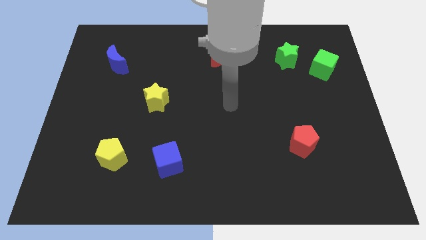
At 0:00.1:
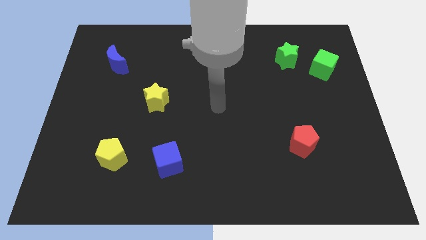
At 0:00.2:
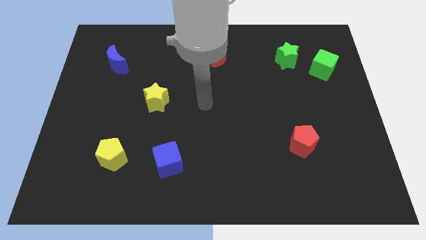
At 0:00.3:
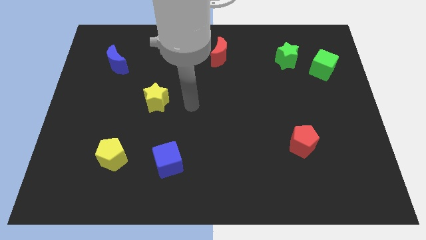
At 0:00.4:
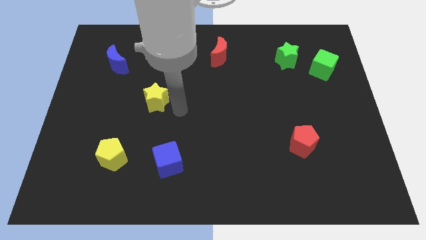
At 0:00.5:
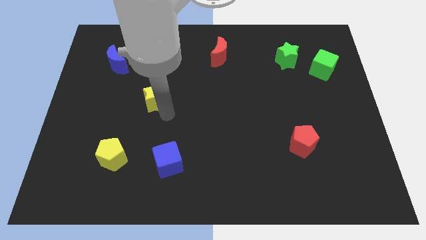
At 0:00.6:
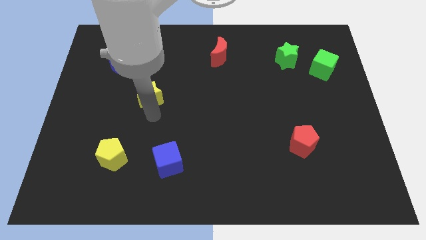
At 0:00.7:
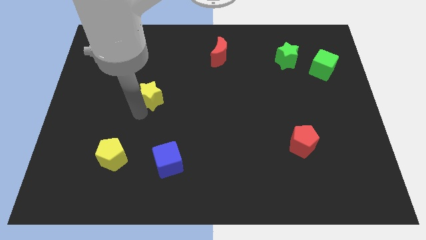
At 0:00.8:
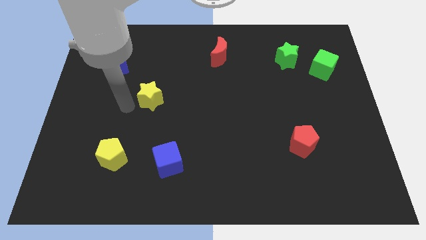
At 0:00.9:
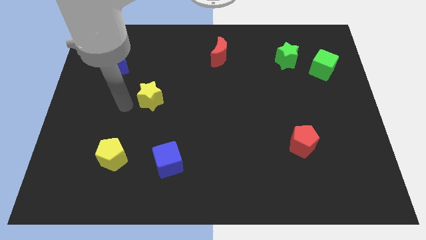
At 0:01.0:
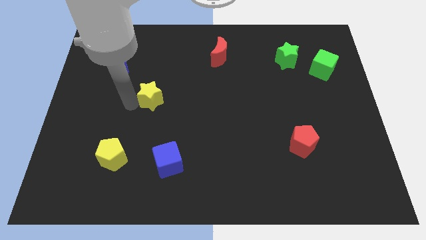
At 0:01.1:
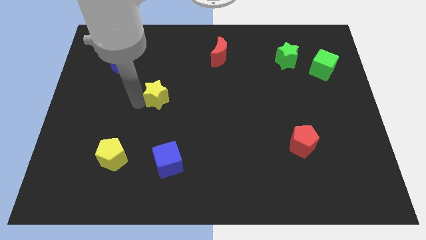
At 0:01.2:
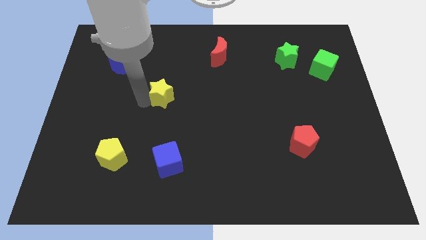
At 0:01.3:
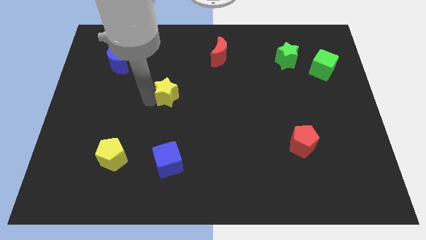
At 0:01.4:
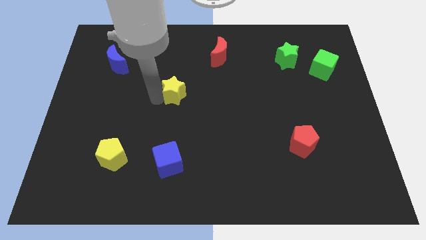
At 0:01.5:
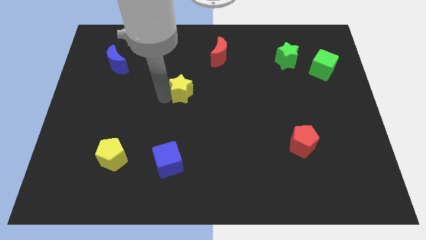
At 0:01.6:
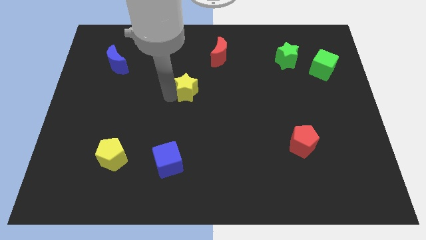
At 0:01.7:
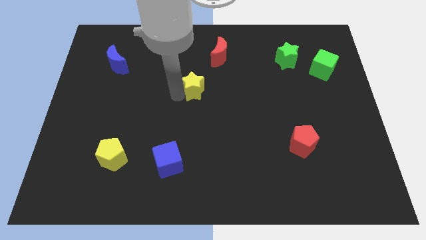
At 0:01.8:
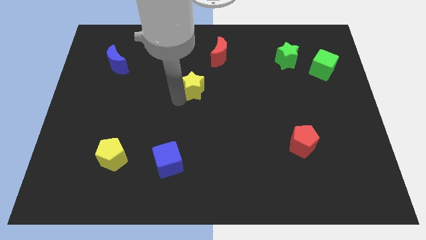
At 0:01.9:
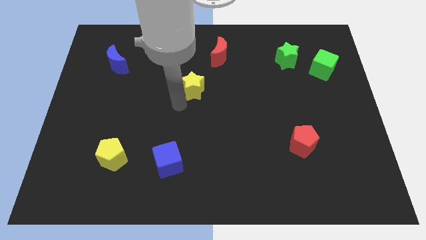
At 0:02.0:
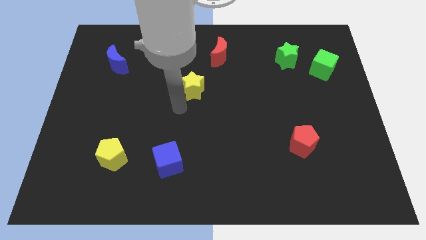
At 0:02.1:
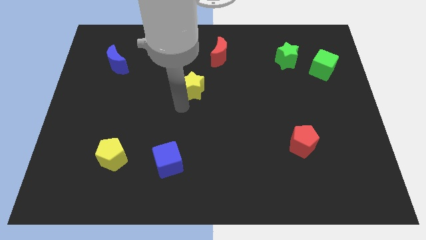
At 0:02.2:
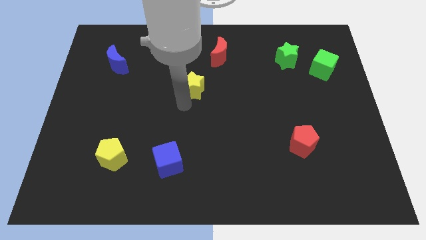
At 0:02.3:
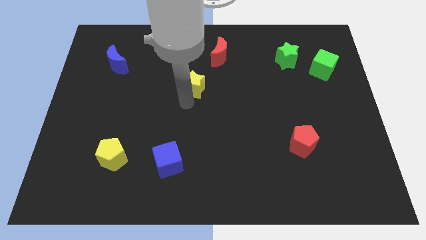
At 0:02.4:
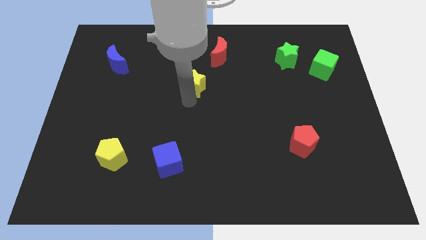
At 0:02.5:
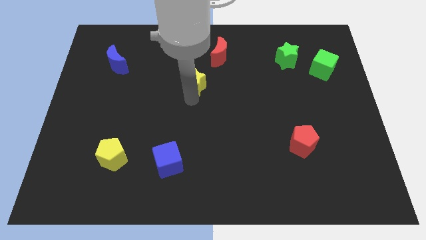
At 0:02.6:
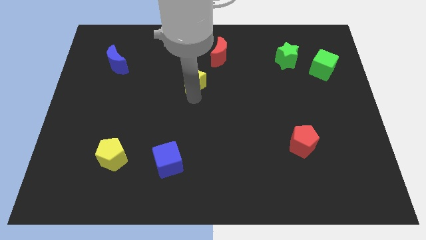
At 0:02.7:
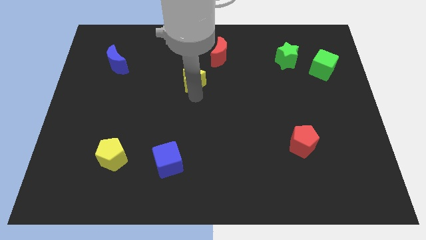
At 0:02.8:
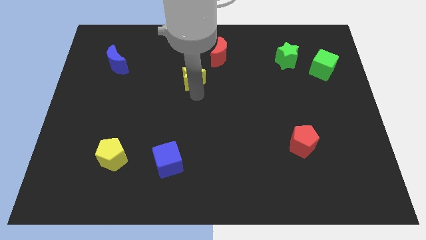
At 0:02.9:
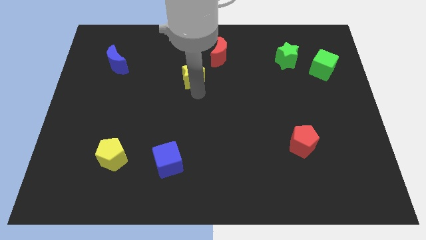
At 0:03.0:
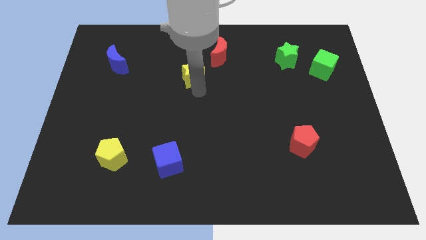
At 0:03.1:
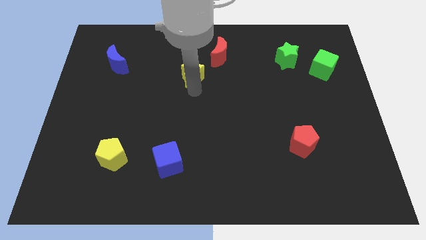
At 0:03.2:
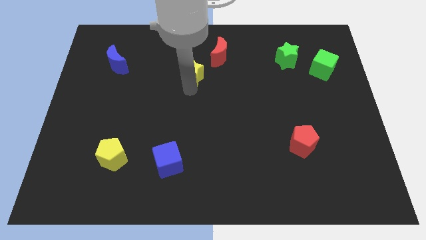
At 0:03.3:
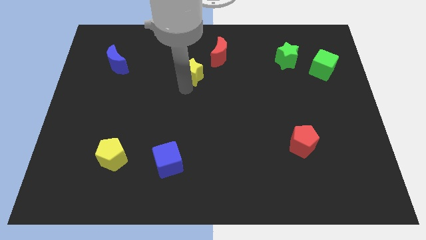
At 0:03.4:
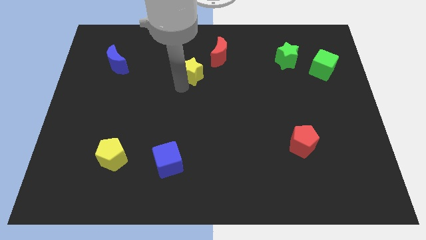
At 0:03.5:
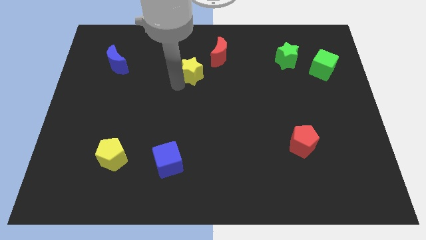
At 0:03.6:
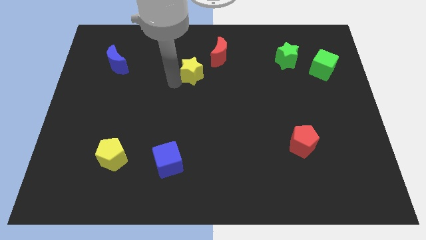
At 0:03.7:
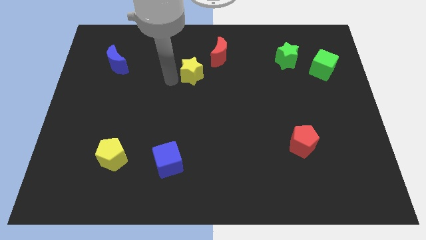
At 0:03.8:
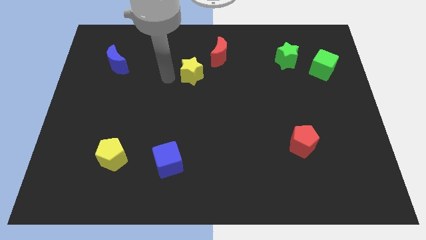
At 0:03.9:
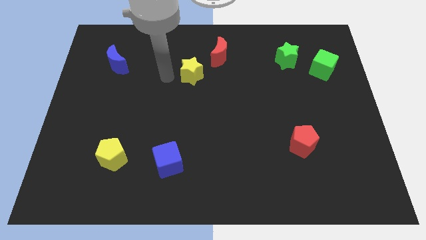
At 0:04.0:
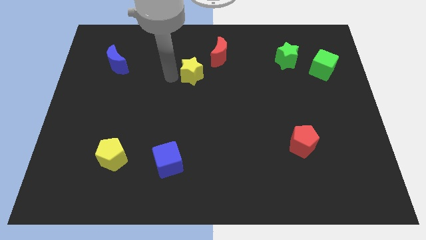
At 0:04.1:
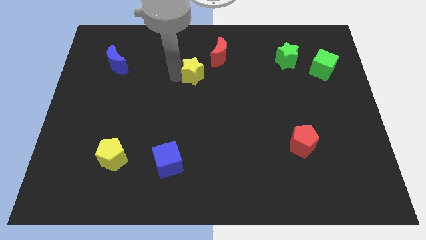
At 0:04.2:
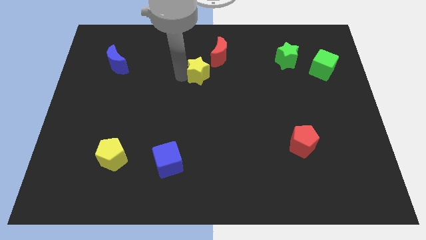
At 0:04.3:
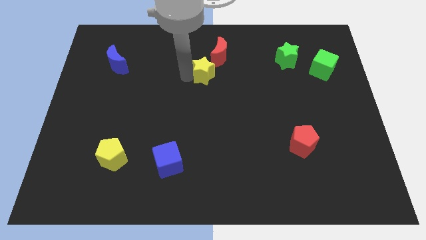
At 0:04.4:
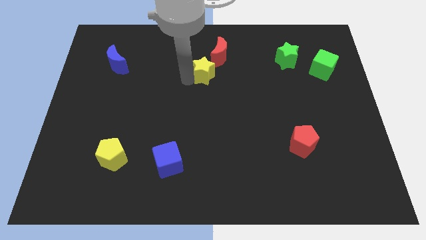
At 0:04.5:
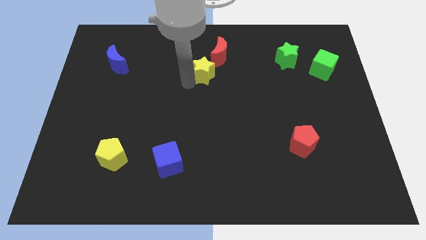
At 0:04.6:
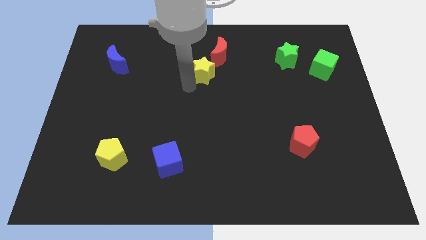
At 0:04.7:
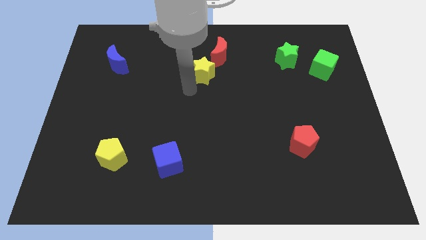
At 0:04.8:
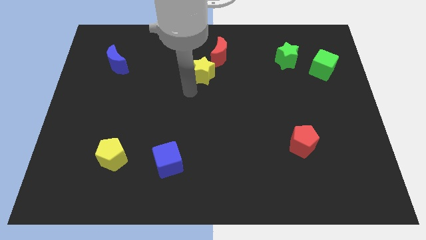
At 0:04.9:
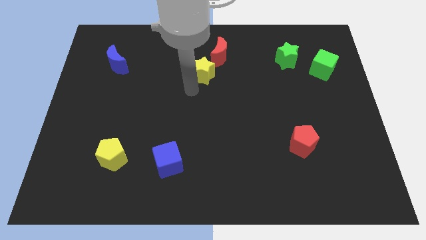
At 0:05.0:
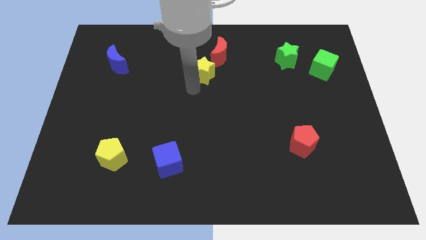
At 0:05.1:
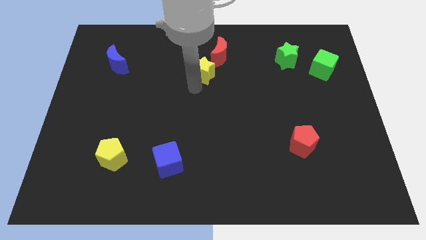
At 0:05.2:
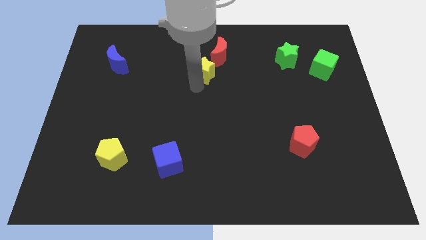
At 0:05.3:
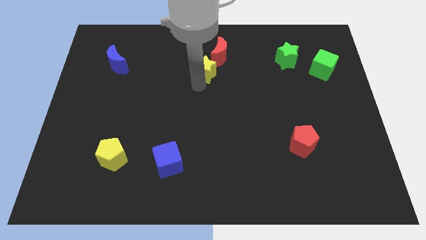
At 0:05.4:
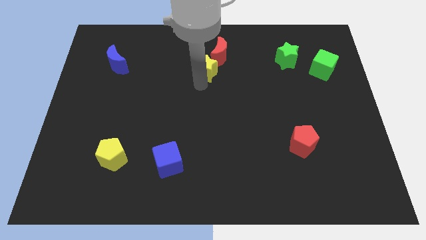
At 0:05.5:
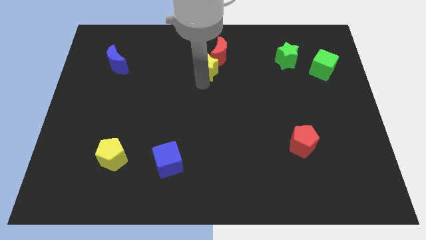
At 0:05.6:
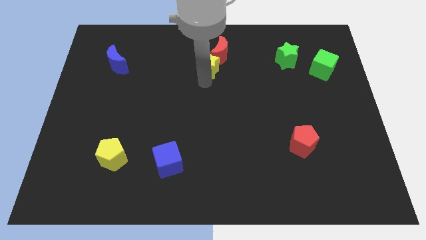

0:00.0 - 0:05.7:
put the yellow star to the red moon

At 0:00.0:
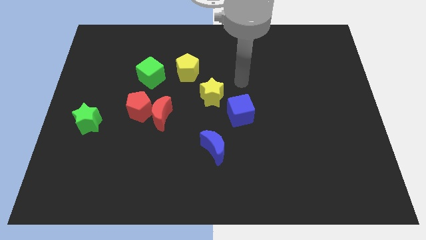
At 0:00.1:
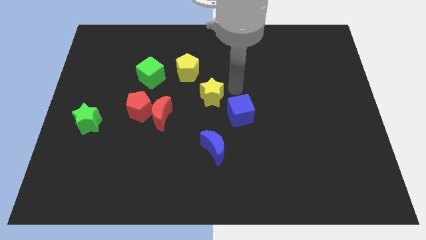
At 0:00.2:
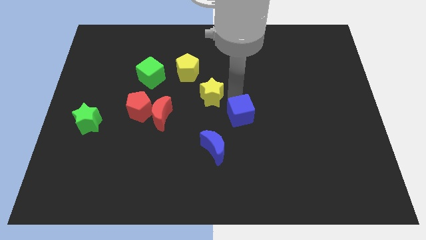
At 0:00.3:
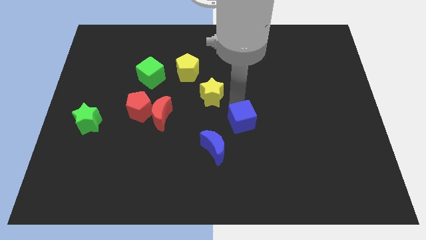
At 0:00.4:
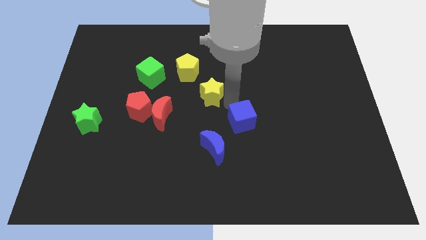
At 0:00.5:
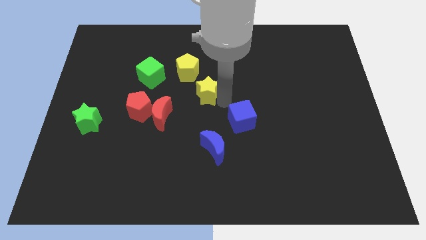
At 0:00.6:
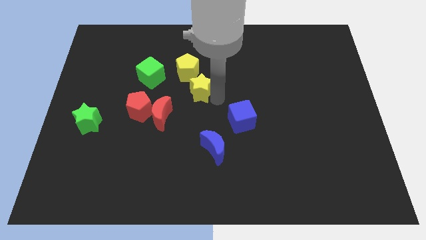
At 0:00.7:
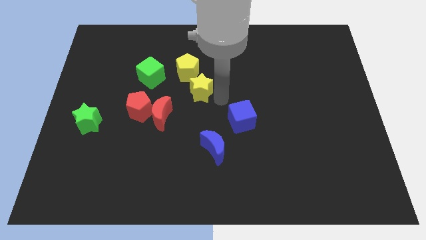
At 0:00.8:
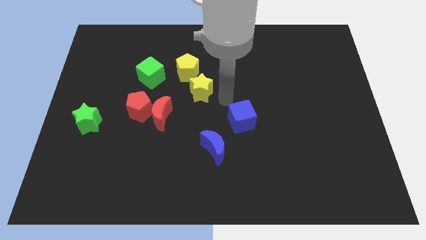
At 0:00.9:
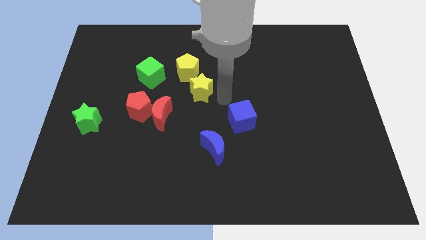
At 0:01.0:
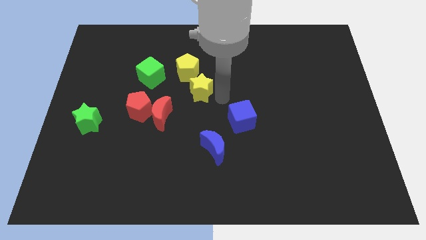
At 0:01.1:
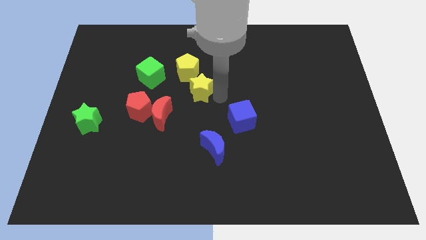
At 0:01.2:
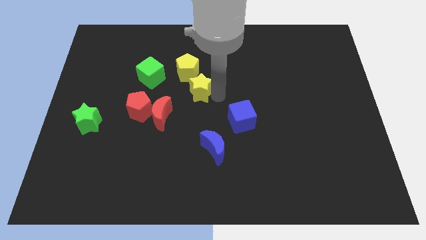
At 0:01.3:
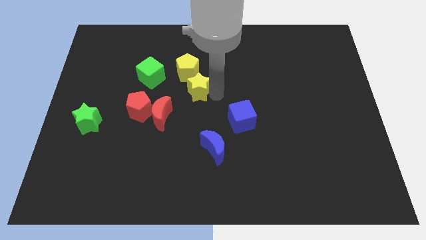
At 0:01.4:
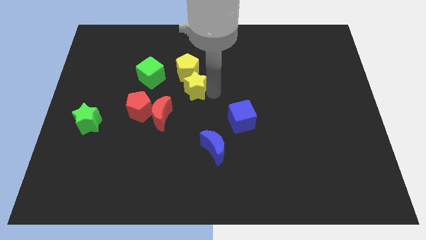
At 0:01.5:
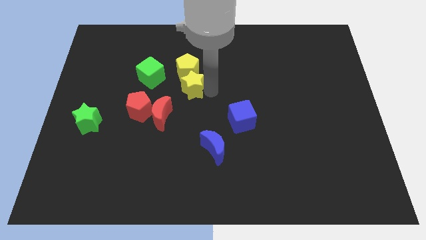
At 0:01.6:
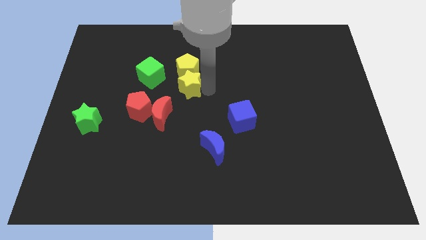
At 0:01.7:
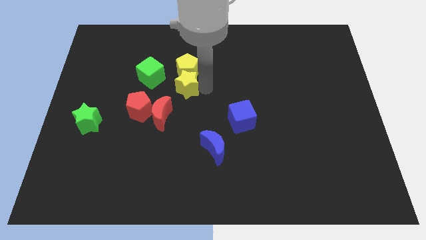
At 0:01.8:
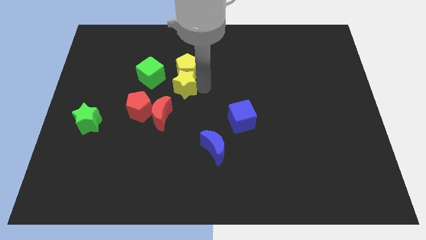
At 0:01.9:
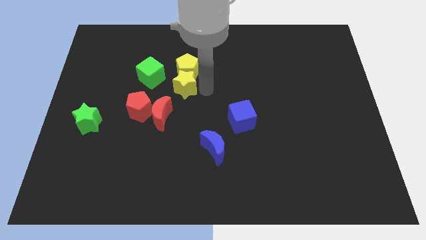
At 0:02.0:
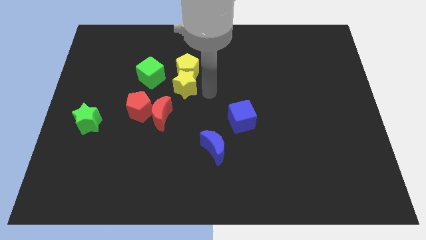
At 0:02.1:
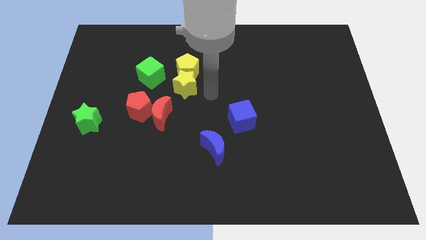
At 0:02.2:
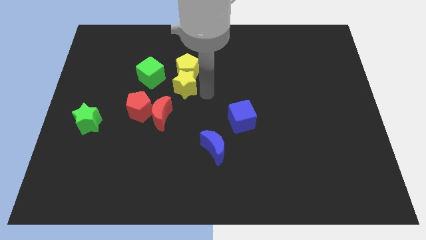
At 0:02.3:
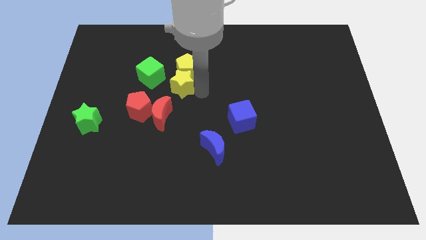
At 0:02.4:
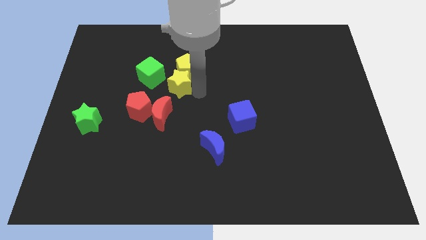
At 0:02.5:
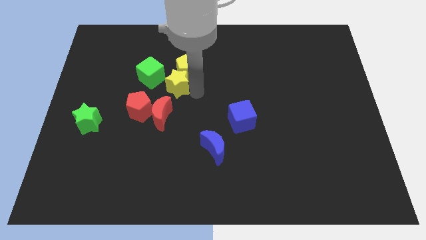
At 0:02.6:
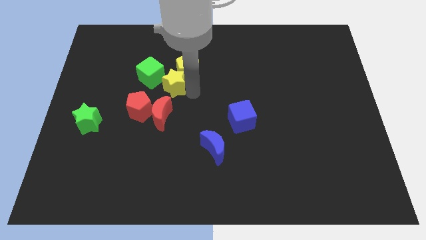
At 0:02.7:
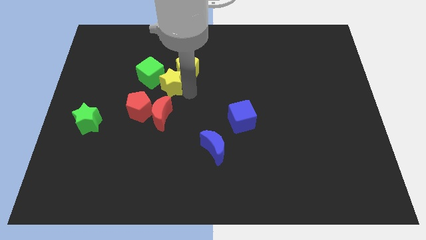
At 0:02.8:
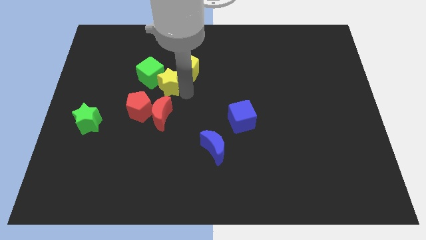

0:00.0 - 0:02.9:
put the yellow star towards the green cube
